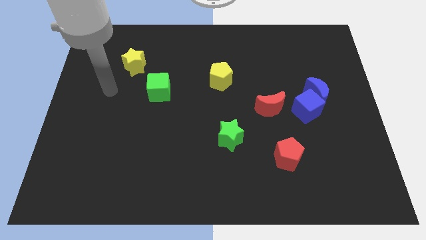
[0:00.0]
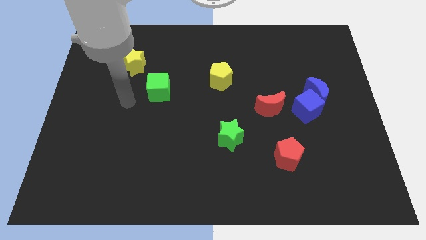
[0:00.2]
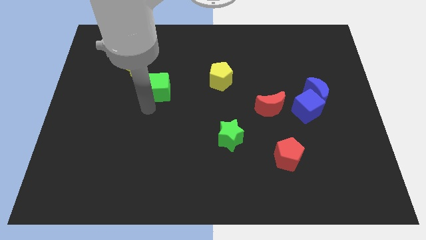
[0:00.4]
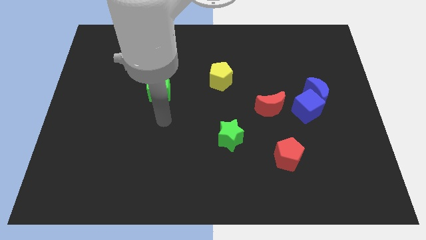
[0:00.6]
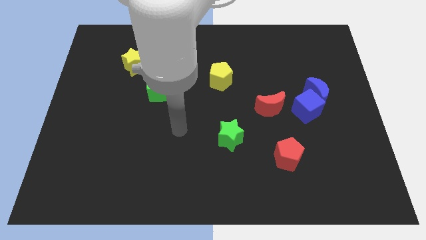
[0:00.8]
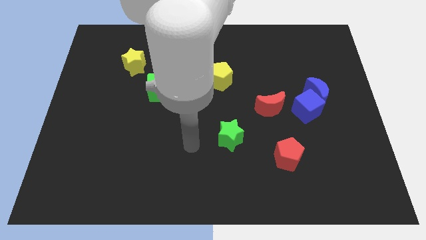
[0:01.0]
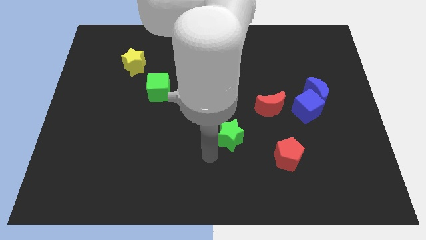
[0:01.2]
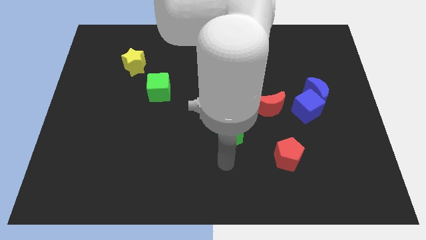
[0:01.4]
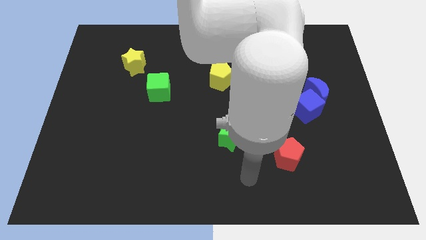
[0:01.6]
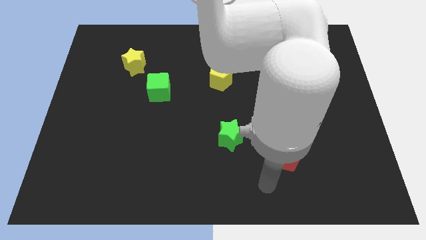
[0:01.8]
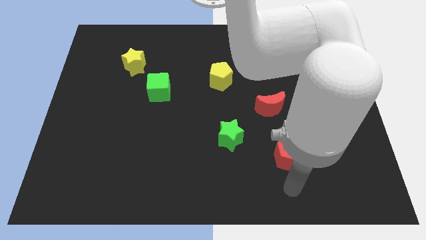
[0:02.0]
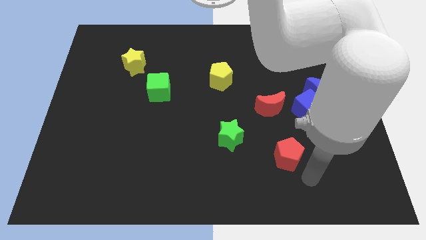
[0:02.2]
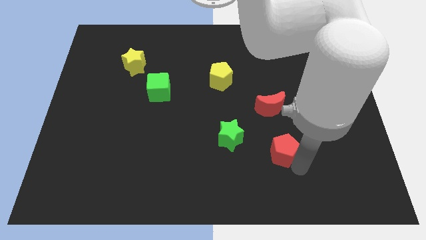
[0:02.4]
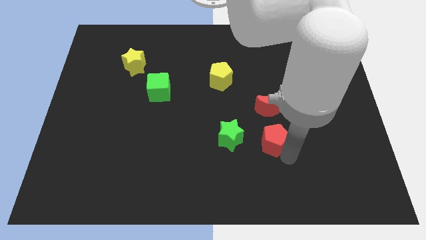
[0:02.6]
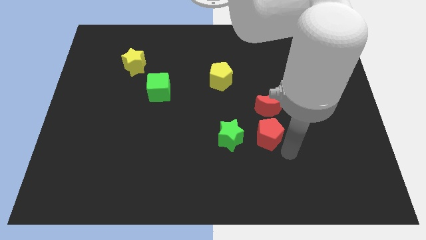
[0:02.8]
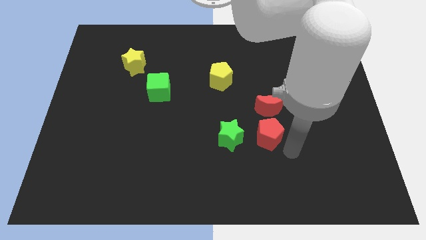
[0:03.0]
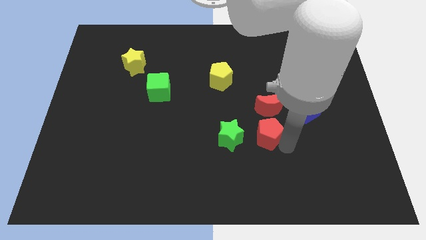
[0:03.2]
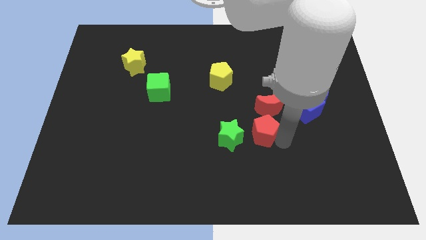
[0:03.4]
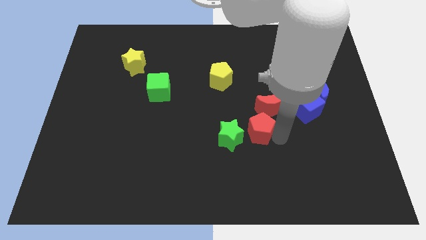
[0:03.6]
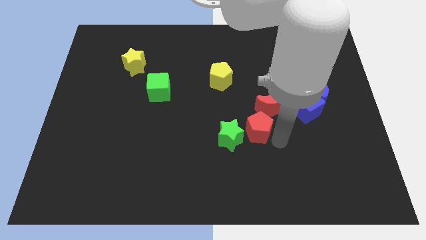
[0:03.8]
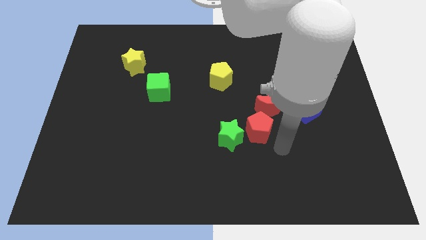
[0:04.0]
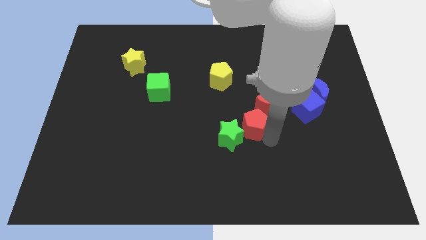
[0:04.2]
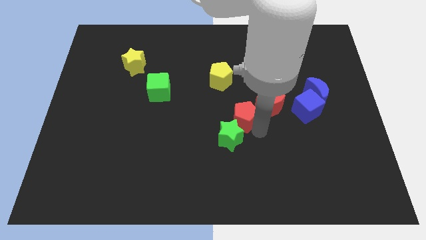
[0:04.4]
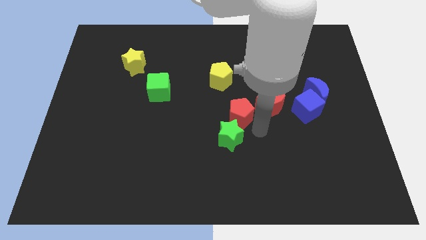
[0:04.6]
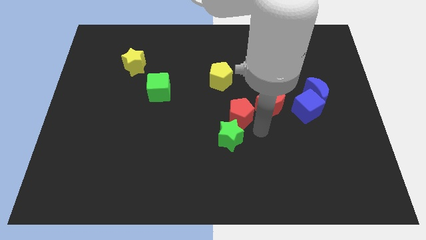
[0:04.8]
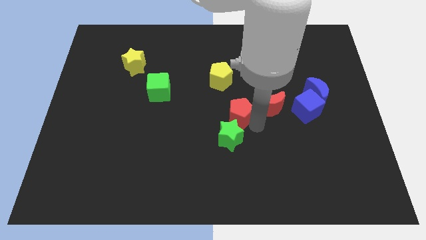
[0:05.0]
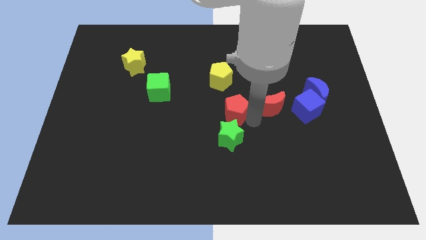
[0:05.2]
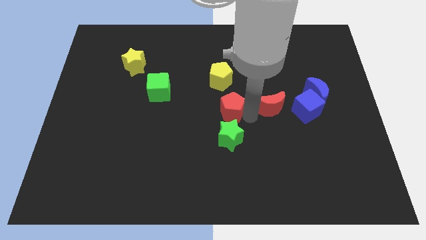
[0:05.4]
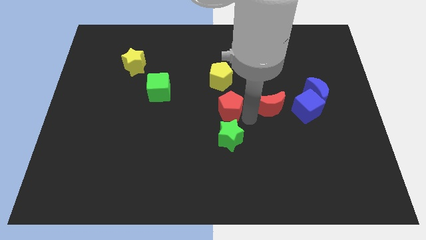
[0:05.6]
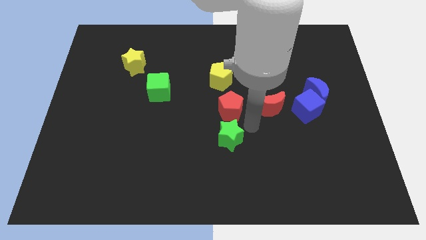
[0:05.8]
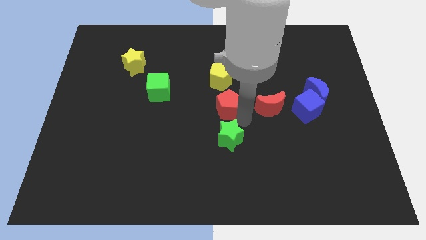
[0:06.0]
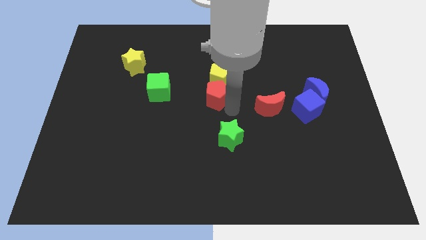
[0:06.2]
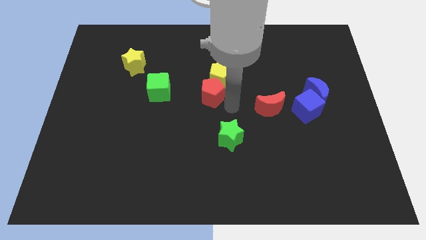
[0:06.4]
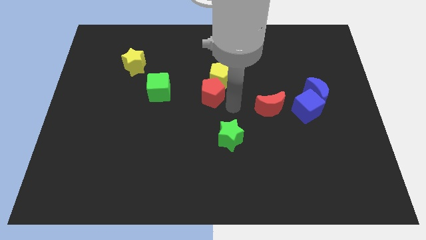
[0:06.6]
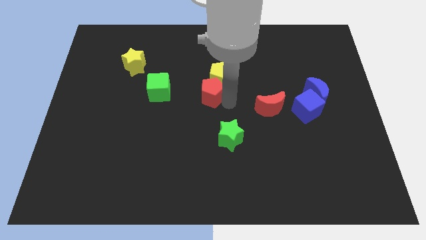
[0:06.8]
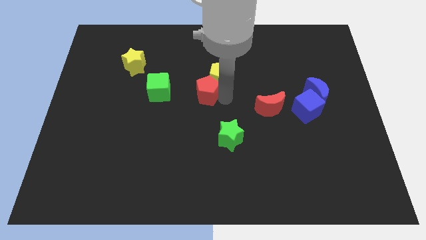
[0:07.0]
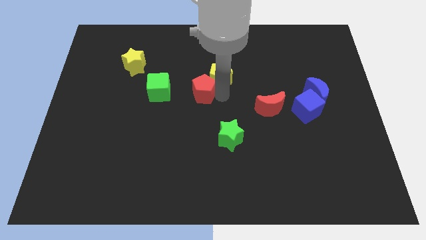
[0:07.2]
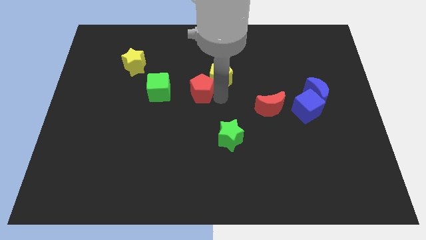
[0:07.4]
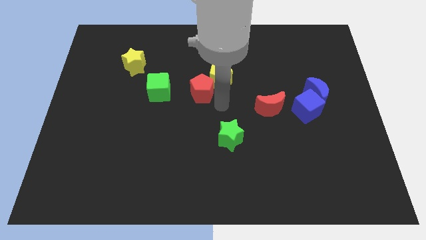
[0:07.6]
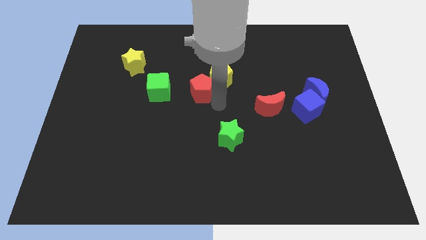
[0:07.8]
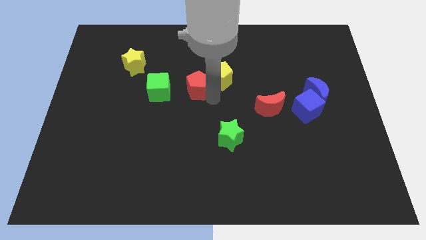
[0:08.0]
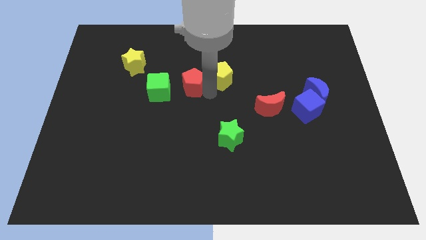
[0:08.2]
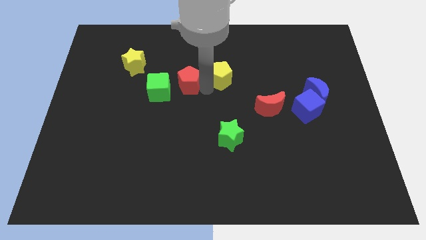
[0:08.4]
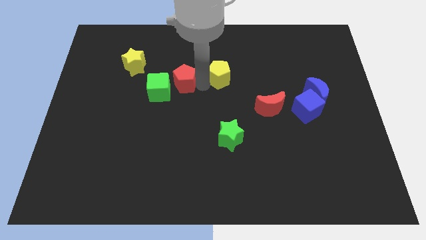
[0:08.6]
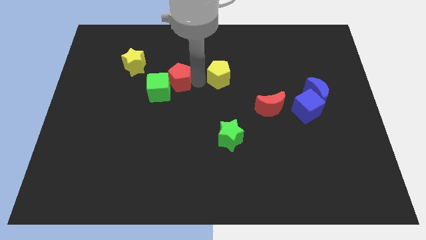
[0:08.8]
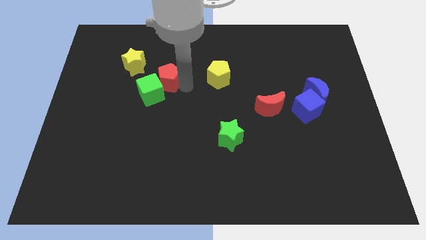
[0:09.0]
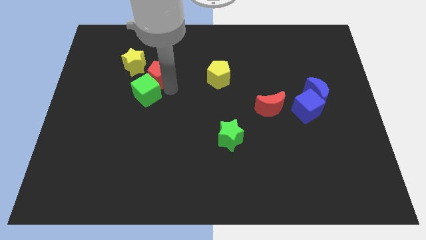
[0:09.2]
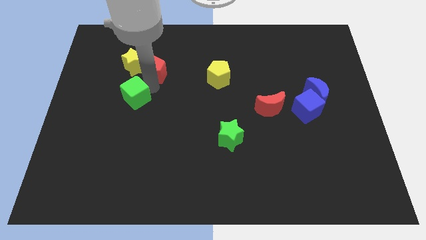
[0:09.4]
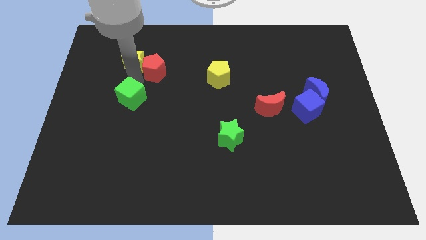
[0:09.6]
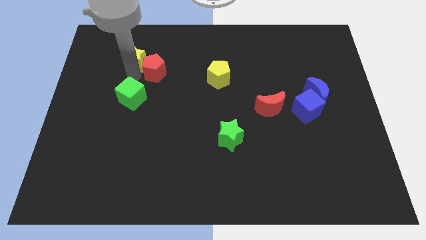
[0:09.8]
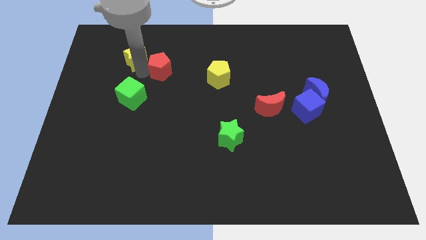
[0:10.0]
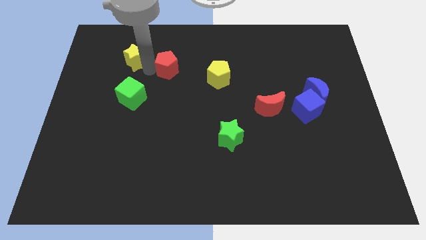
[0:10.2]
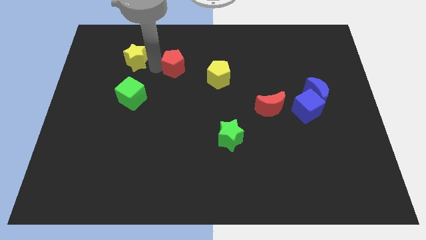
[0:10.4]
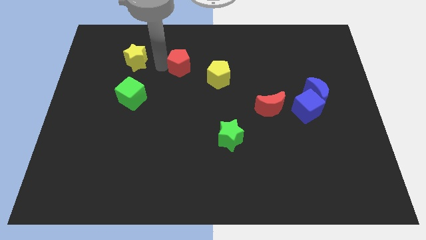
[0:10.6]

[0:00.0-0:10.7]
move the red pentagon diagonally up and to the left of the yellow pentagon

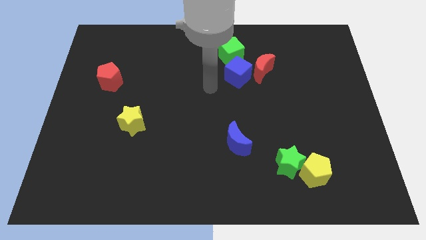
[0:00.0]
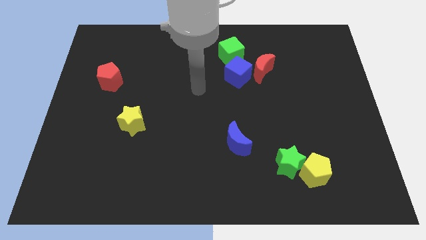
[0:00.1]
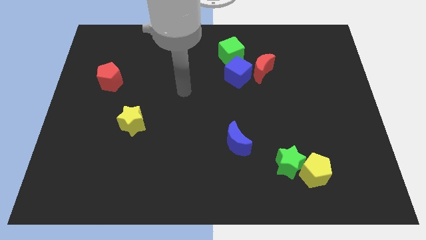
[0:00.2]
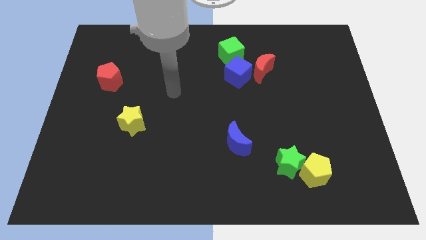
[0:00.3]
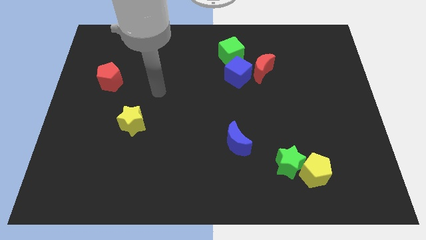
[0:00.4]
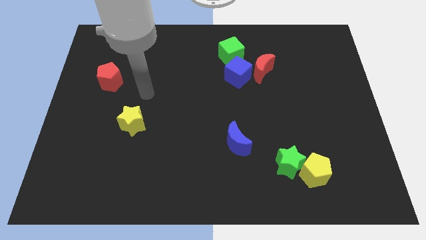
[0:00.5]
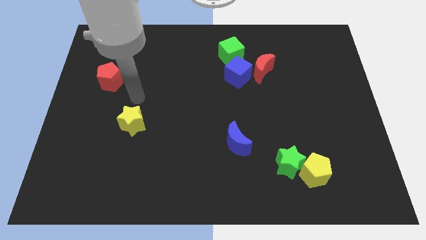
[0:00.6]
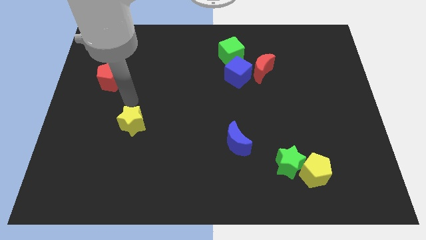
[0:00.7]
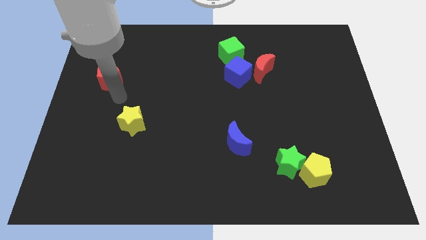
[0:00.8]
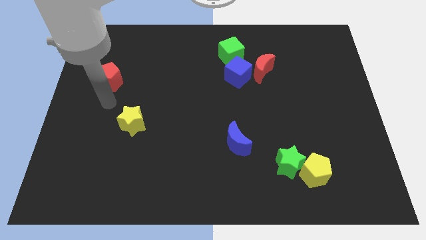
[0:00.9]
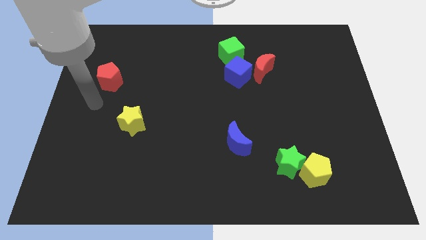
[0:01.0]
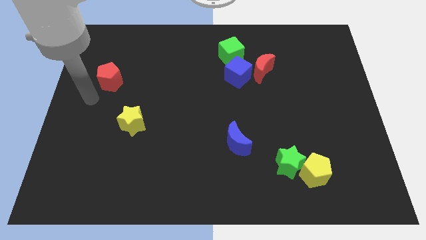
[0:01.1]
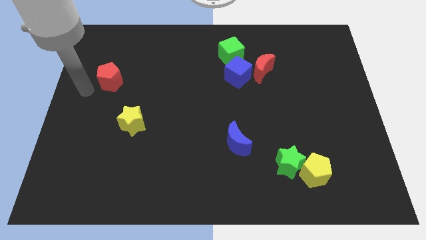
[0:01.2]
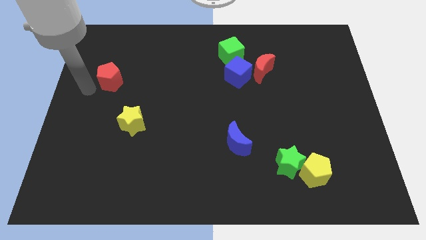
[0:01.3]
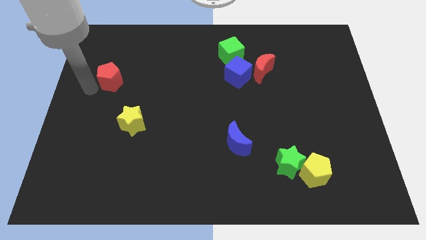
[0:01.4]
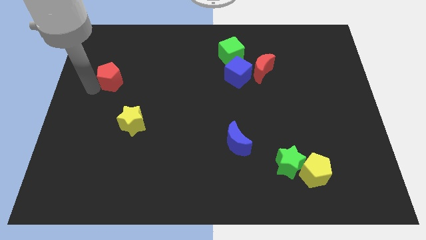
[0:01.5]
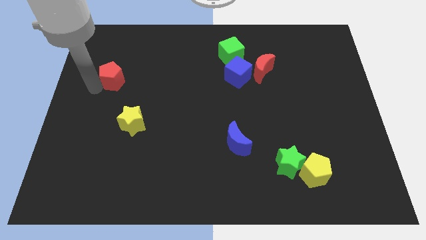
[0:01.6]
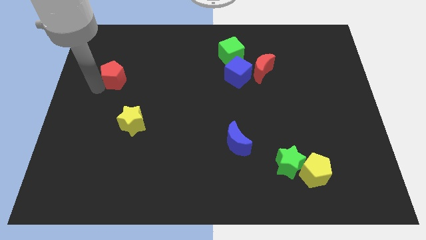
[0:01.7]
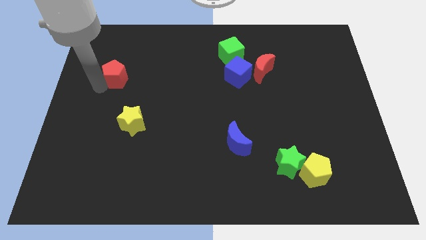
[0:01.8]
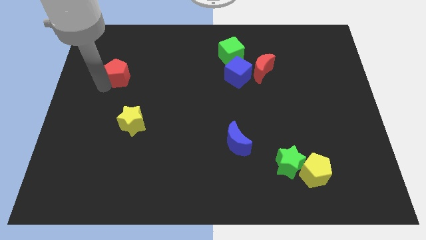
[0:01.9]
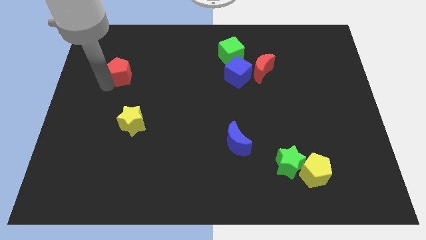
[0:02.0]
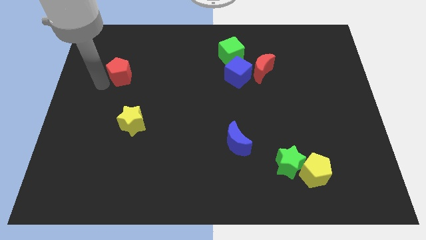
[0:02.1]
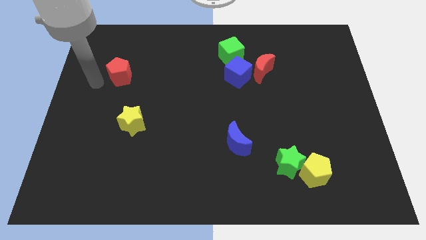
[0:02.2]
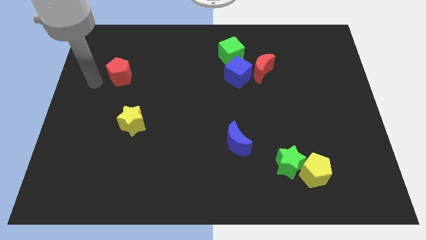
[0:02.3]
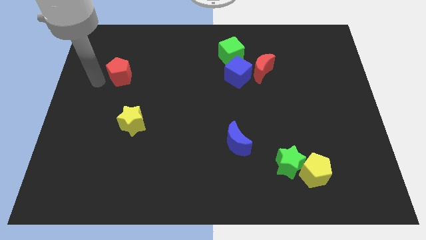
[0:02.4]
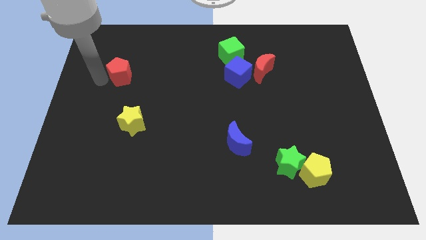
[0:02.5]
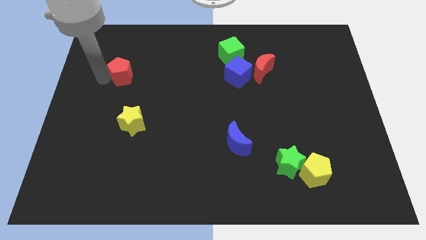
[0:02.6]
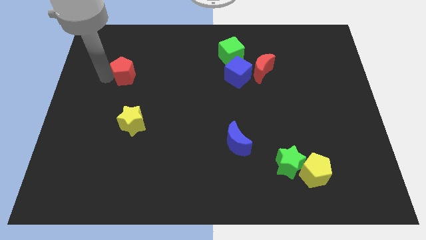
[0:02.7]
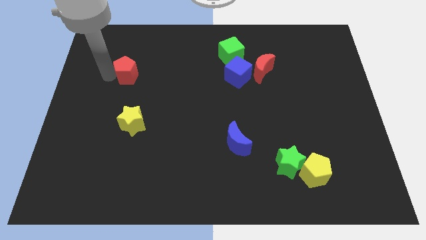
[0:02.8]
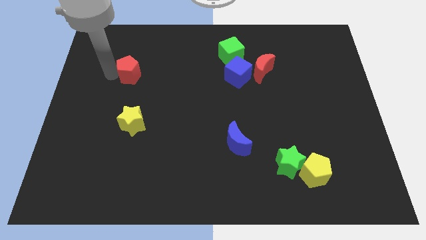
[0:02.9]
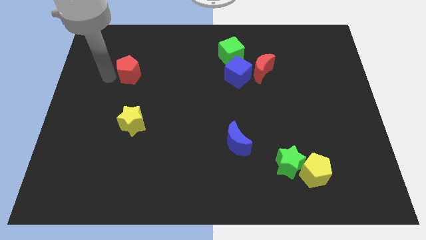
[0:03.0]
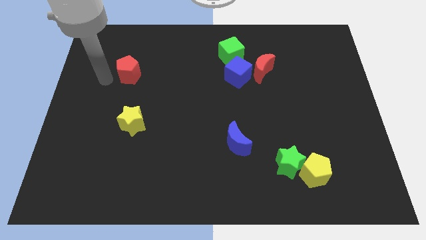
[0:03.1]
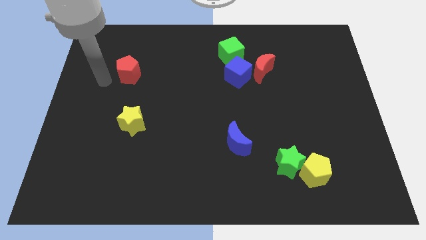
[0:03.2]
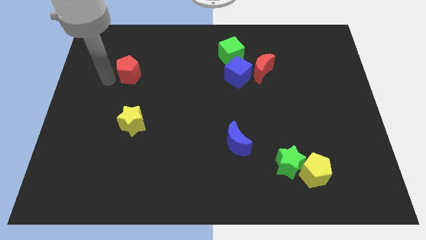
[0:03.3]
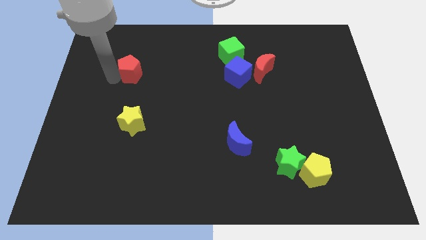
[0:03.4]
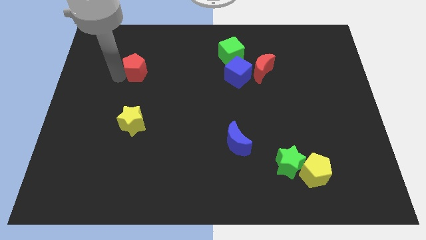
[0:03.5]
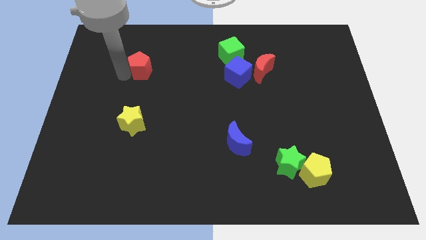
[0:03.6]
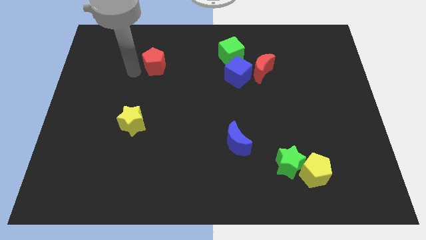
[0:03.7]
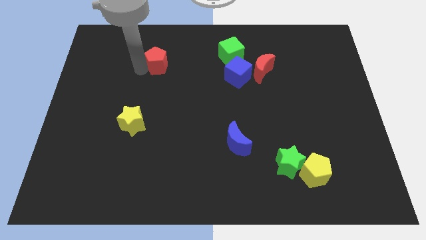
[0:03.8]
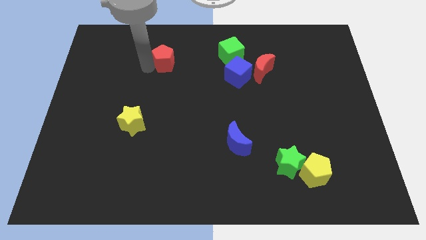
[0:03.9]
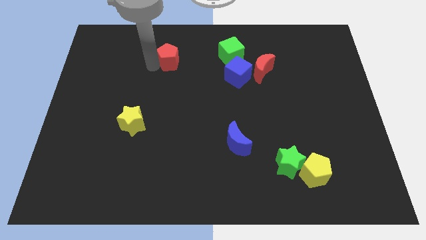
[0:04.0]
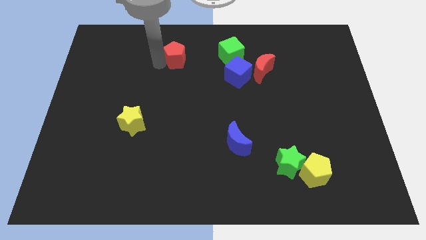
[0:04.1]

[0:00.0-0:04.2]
push the red pentagon just left of the green cube
